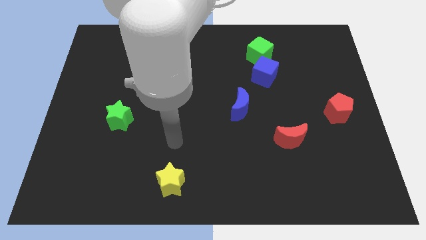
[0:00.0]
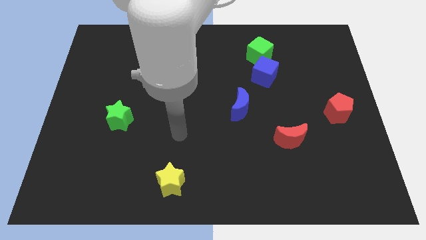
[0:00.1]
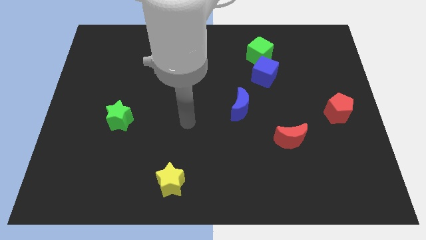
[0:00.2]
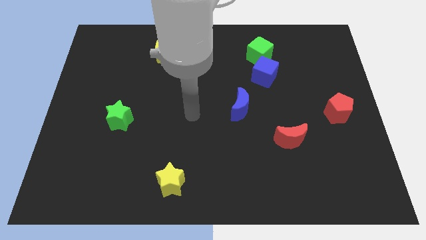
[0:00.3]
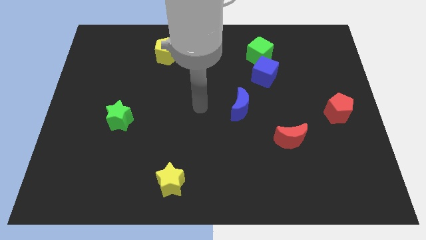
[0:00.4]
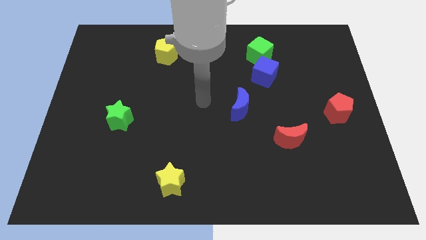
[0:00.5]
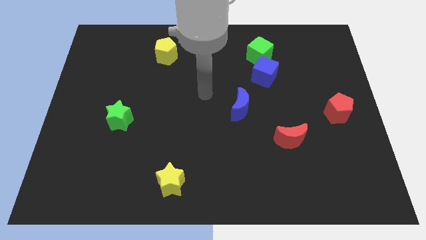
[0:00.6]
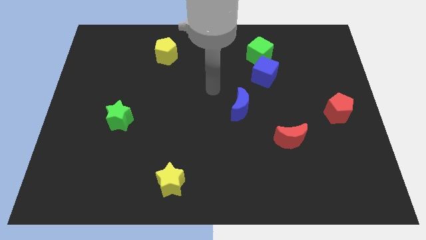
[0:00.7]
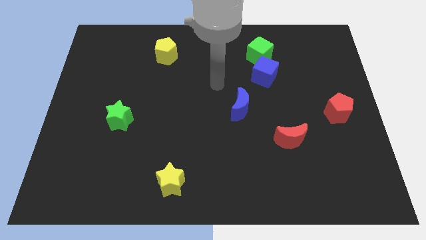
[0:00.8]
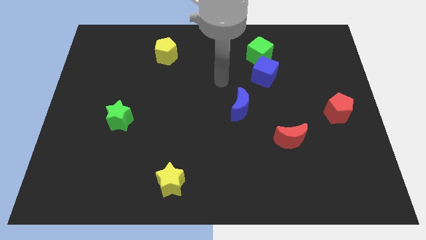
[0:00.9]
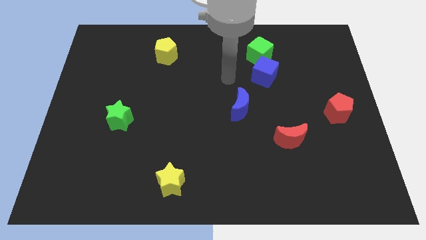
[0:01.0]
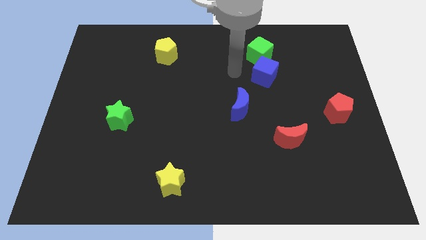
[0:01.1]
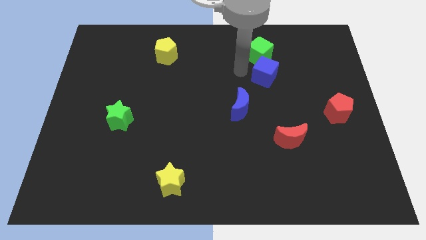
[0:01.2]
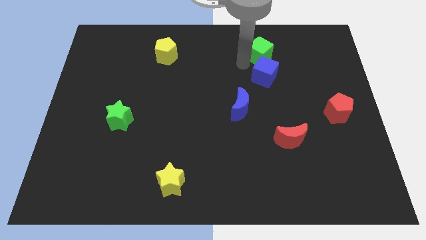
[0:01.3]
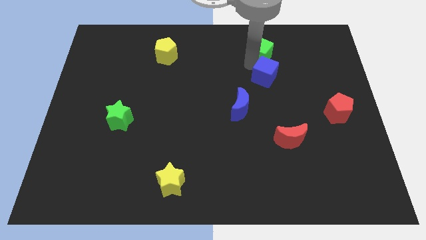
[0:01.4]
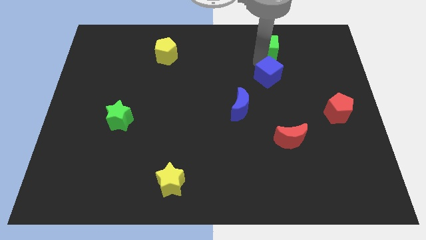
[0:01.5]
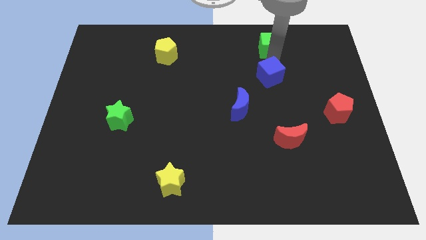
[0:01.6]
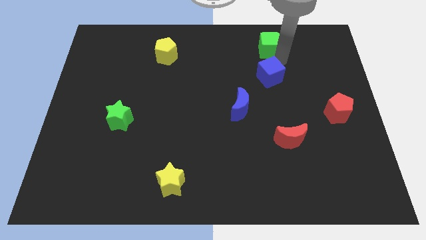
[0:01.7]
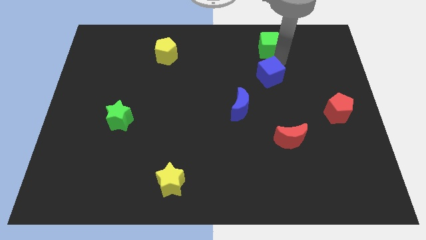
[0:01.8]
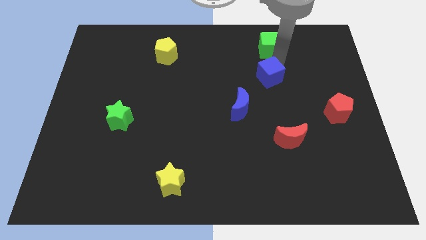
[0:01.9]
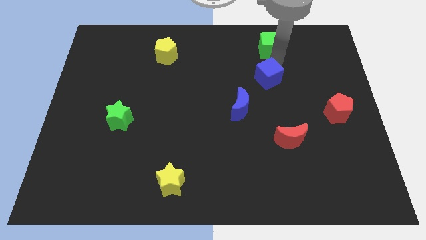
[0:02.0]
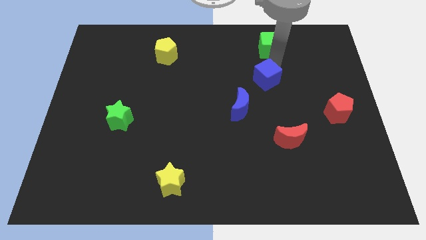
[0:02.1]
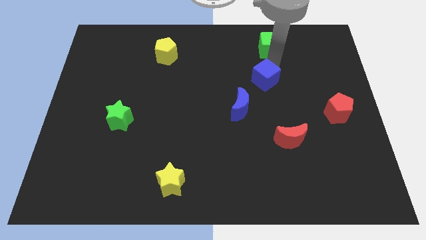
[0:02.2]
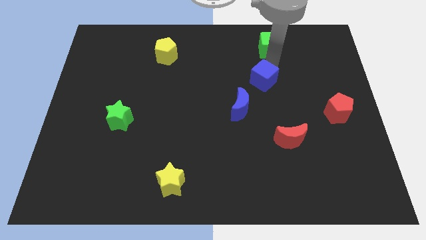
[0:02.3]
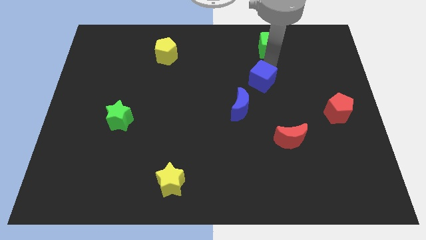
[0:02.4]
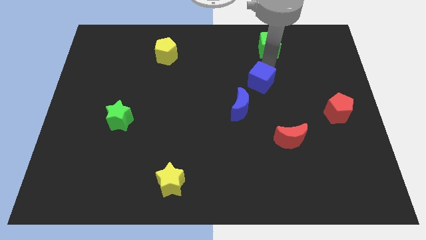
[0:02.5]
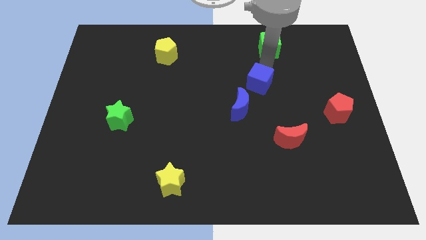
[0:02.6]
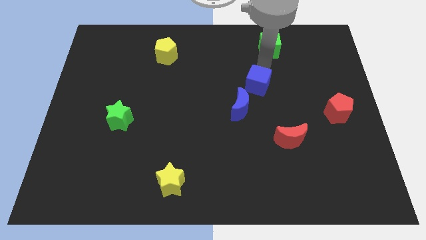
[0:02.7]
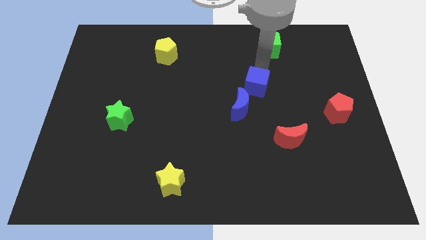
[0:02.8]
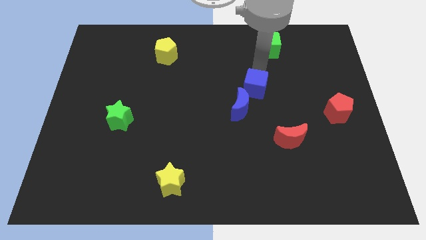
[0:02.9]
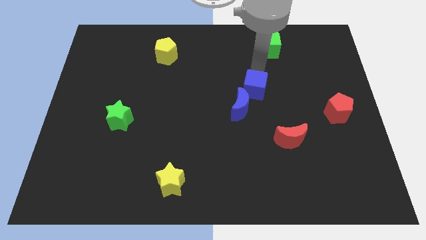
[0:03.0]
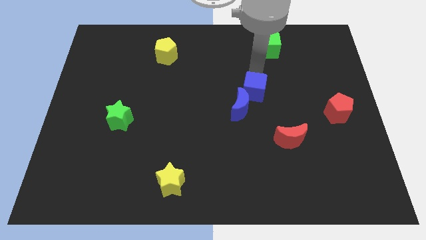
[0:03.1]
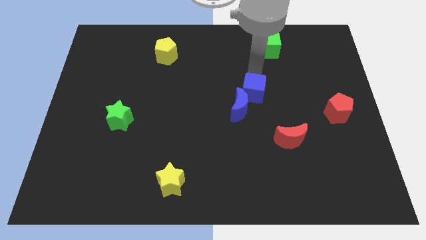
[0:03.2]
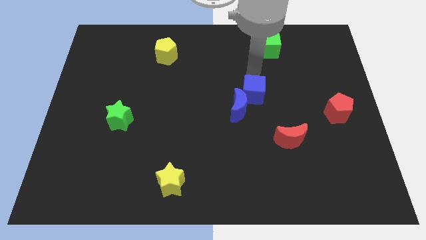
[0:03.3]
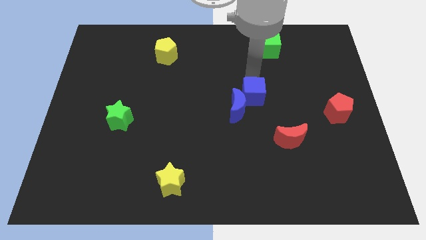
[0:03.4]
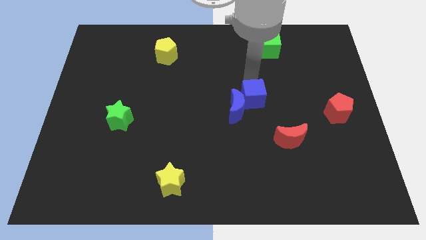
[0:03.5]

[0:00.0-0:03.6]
slightly push the blue cube downwards

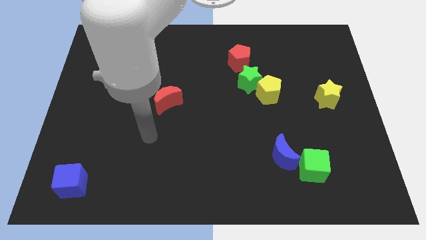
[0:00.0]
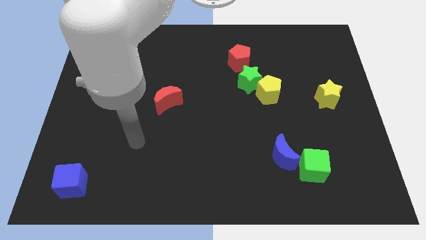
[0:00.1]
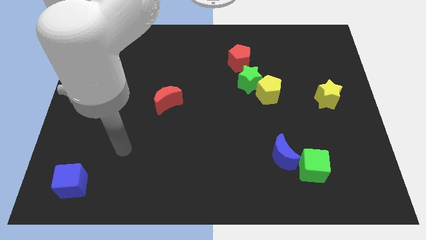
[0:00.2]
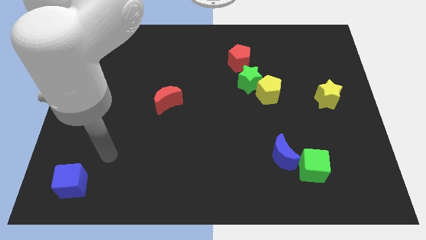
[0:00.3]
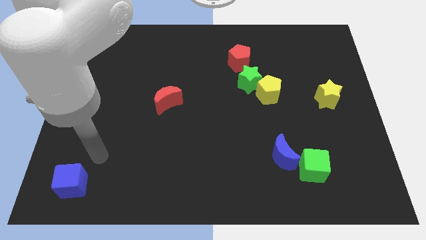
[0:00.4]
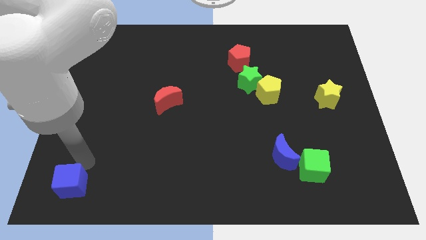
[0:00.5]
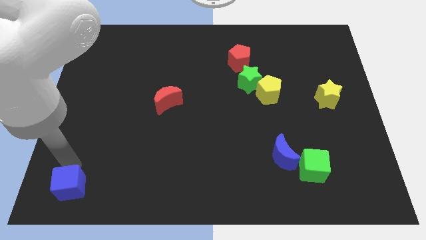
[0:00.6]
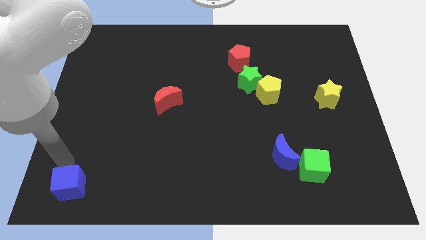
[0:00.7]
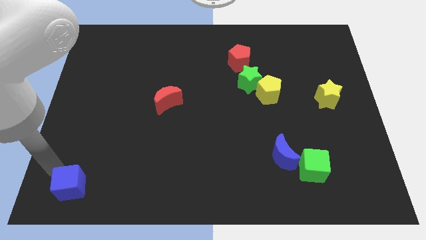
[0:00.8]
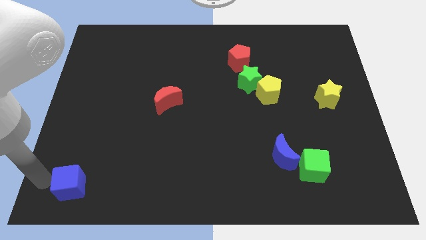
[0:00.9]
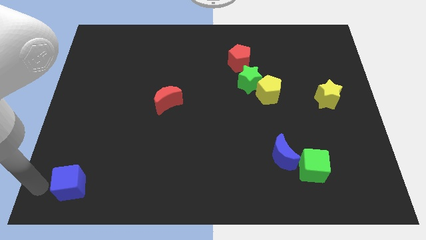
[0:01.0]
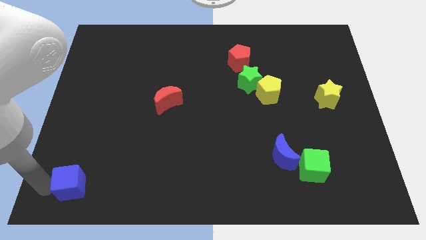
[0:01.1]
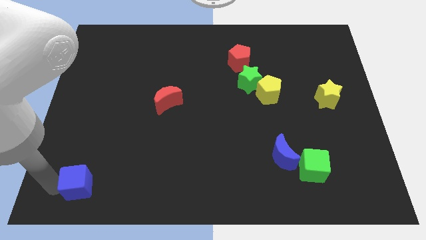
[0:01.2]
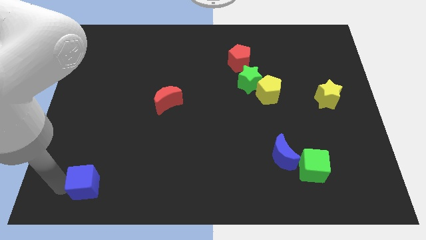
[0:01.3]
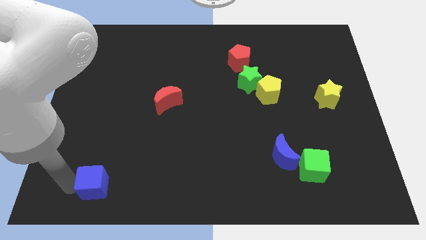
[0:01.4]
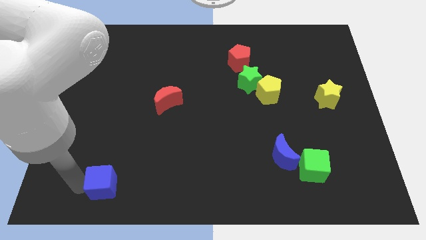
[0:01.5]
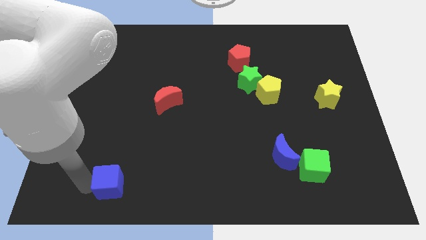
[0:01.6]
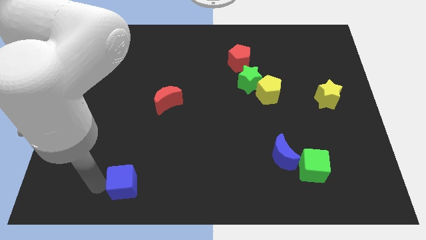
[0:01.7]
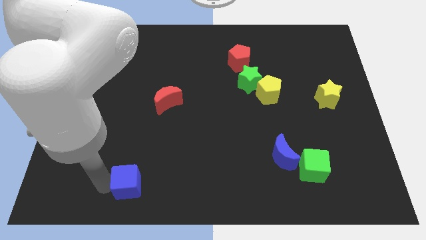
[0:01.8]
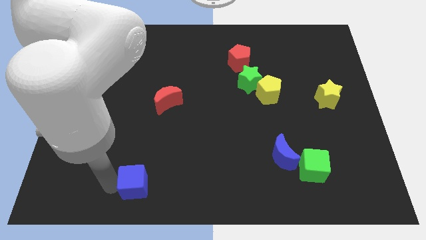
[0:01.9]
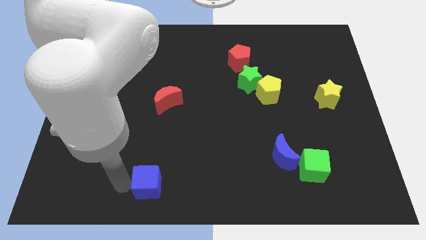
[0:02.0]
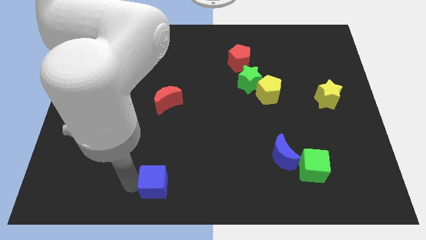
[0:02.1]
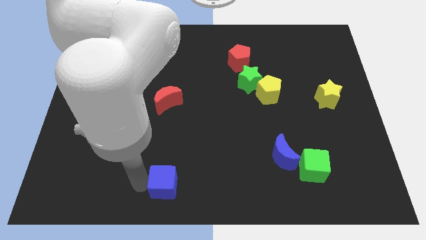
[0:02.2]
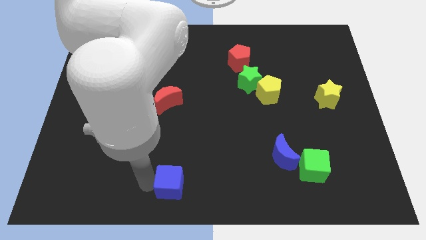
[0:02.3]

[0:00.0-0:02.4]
push the blue cube to the right

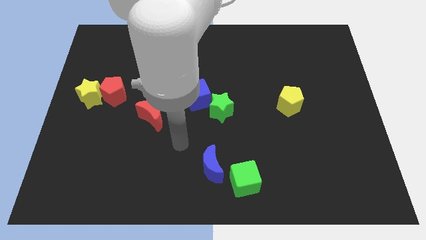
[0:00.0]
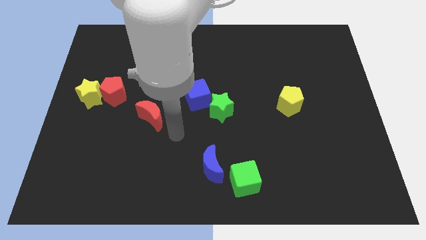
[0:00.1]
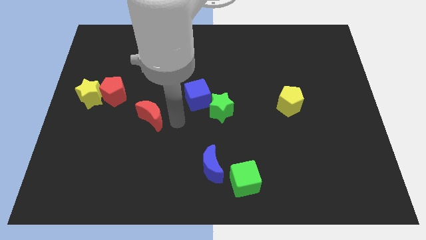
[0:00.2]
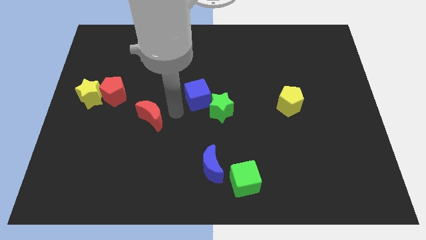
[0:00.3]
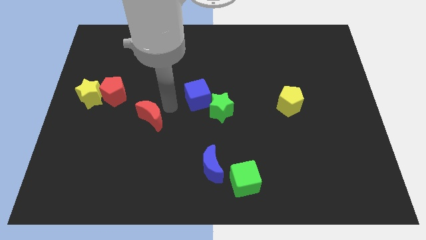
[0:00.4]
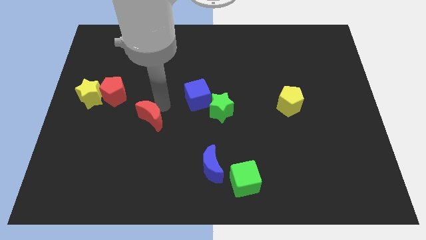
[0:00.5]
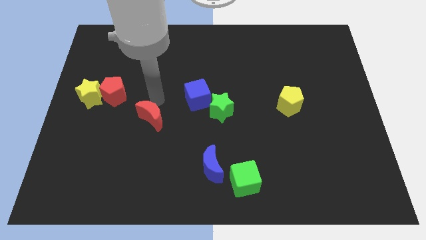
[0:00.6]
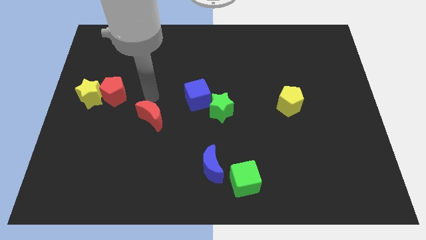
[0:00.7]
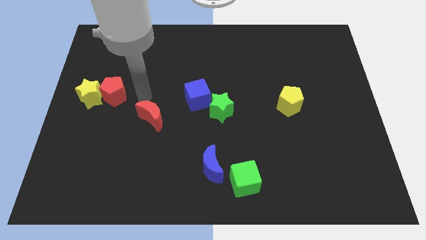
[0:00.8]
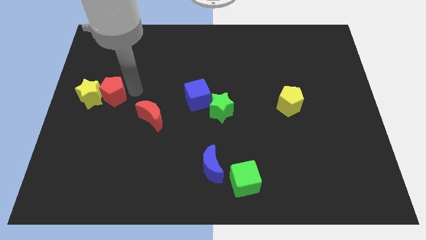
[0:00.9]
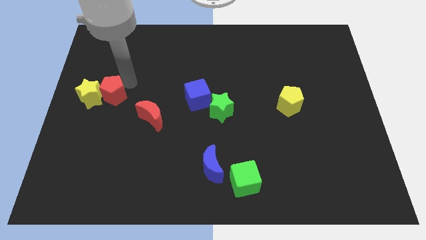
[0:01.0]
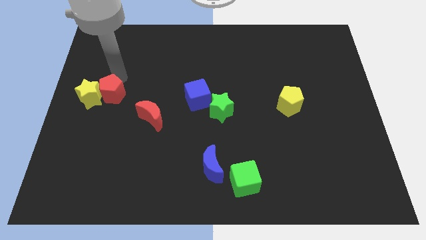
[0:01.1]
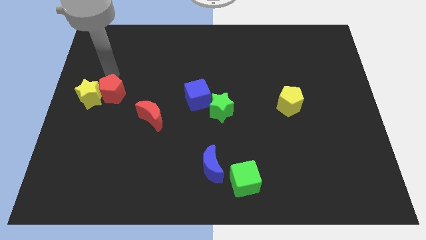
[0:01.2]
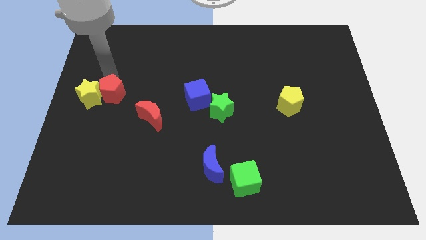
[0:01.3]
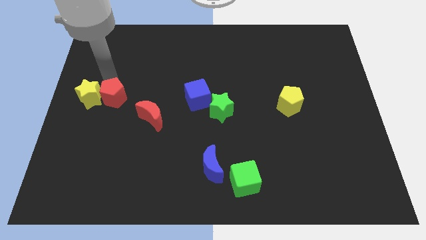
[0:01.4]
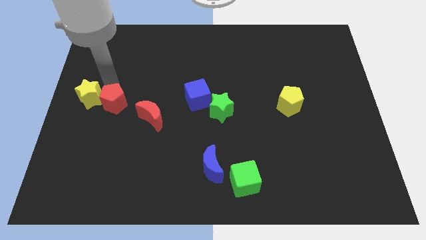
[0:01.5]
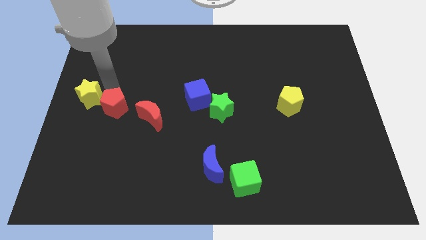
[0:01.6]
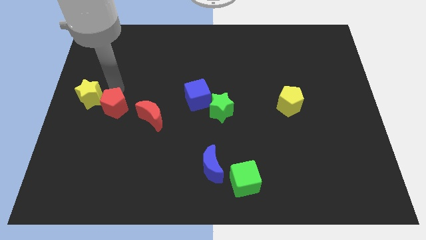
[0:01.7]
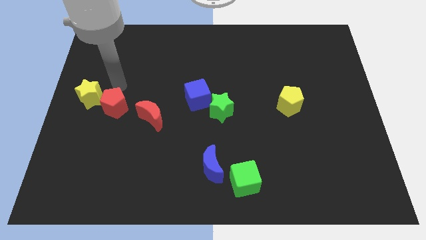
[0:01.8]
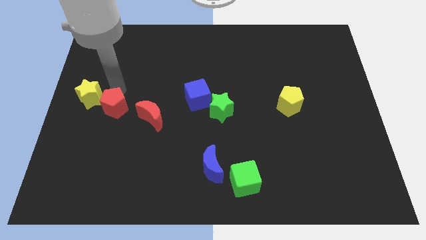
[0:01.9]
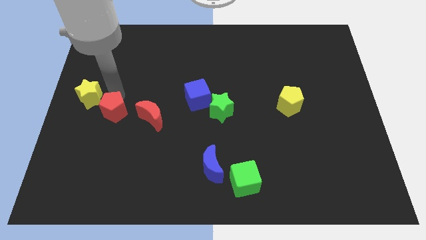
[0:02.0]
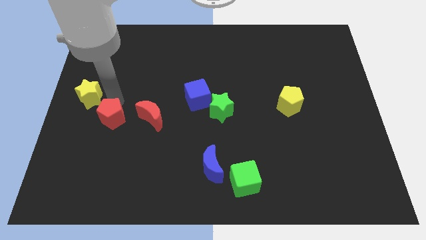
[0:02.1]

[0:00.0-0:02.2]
slightly slide the red pentagon downwards
